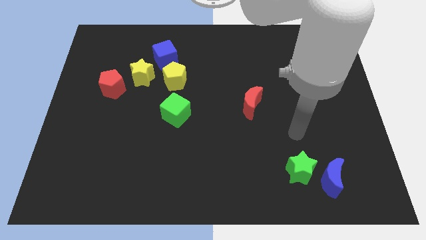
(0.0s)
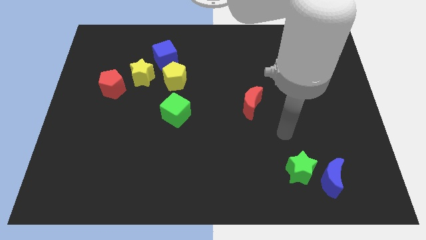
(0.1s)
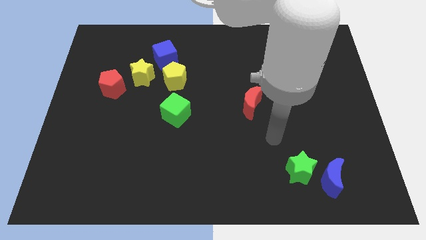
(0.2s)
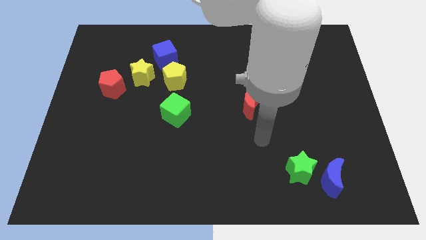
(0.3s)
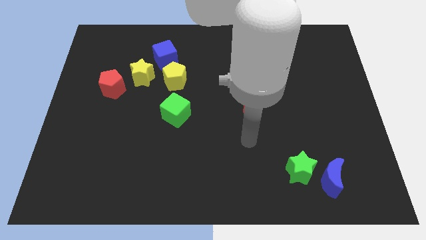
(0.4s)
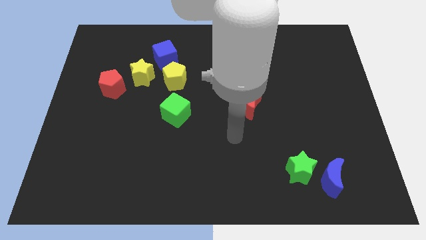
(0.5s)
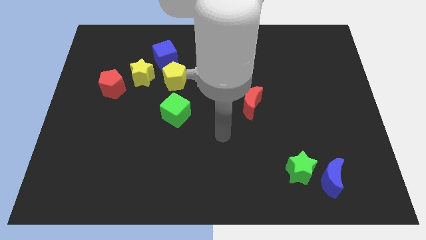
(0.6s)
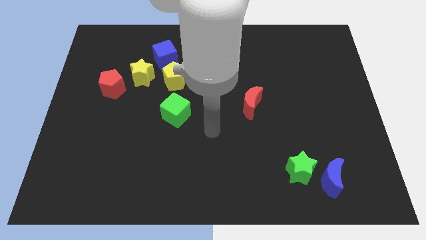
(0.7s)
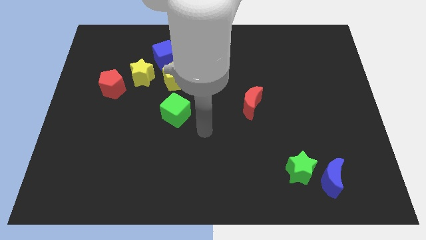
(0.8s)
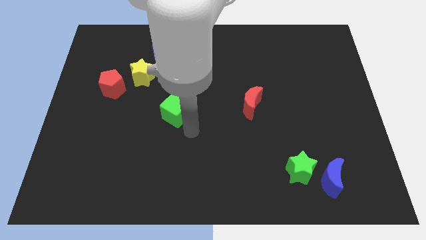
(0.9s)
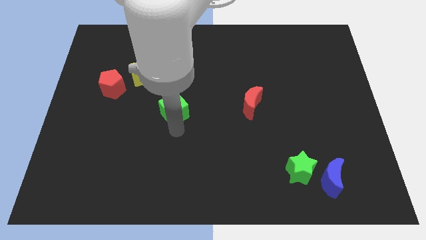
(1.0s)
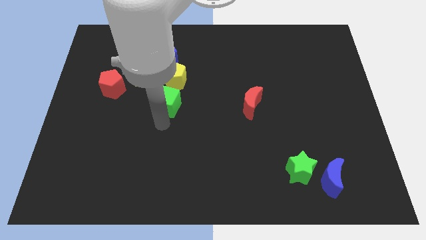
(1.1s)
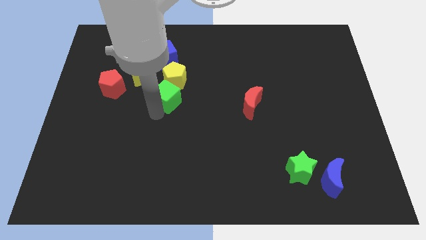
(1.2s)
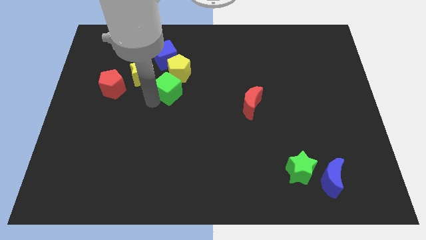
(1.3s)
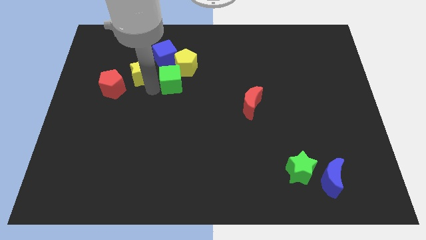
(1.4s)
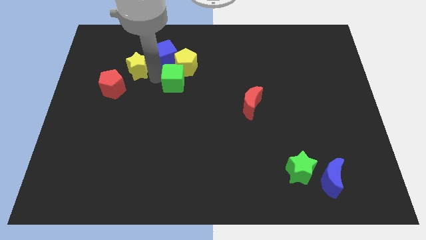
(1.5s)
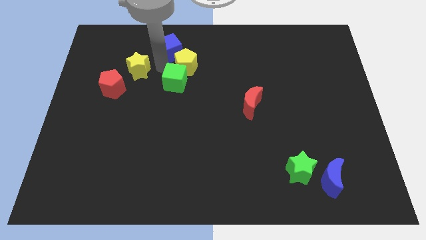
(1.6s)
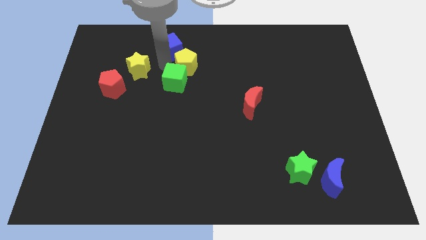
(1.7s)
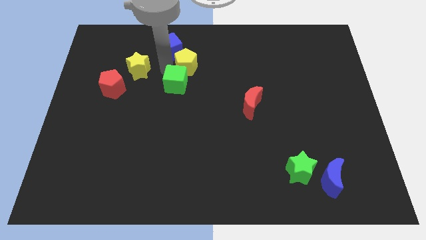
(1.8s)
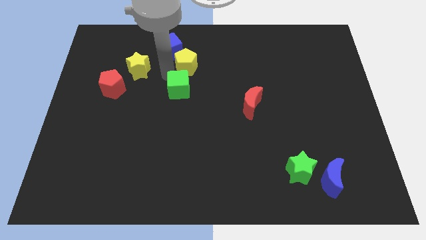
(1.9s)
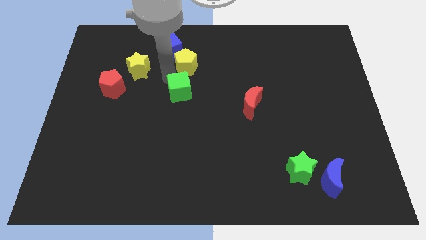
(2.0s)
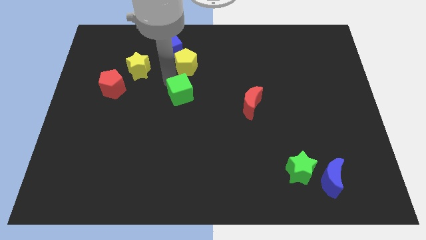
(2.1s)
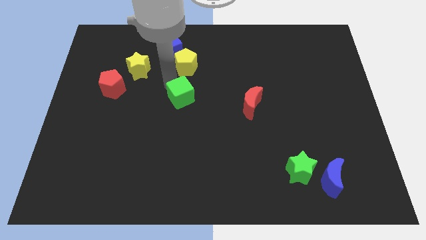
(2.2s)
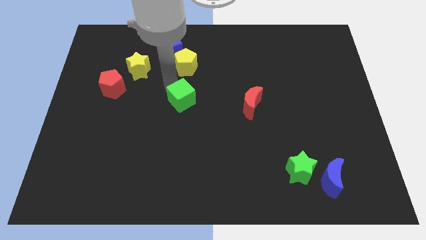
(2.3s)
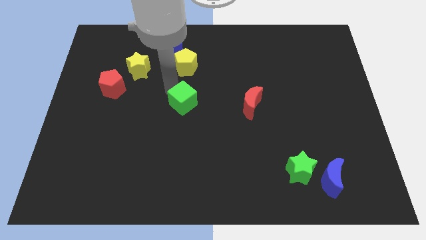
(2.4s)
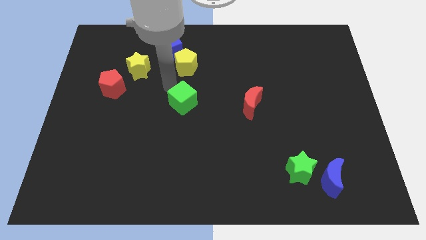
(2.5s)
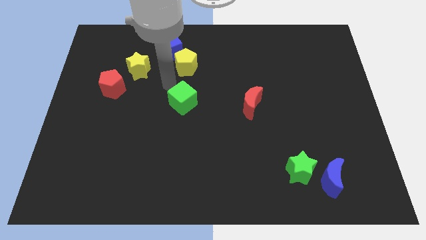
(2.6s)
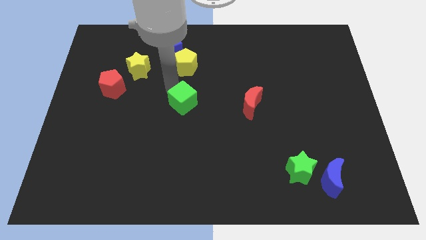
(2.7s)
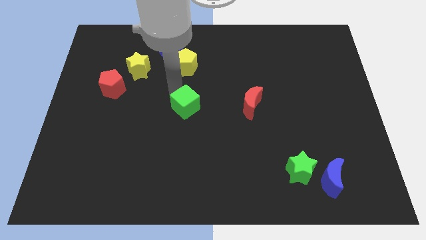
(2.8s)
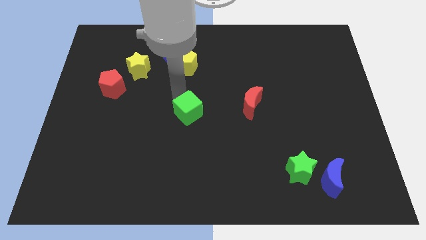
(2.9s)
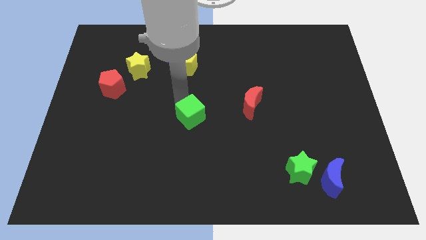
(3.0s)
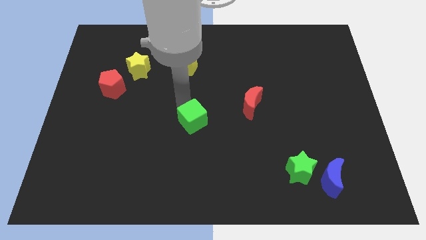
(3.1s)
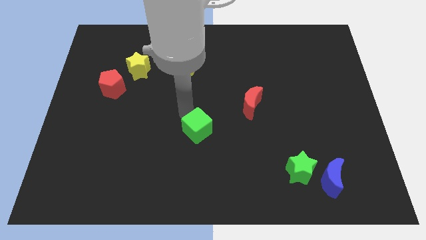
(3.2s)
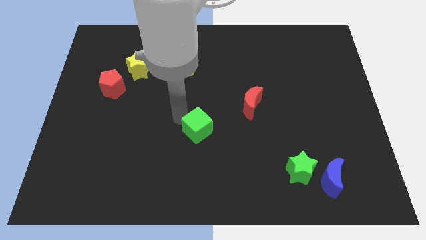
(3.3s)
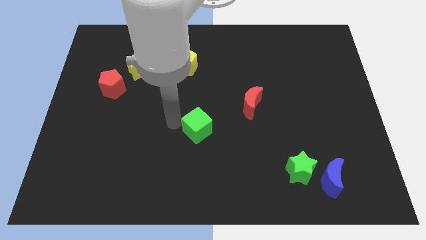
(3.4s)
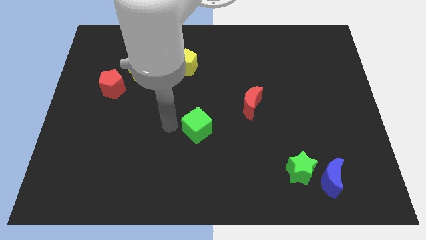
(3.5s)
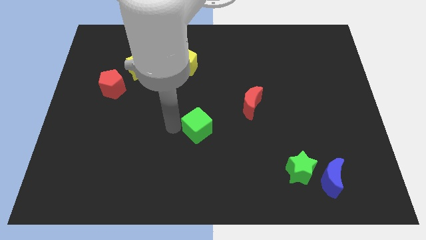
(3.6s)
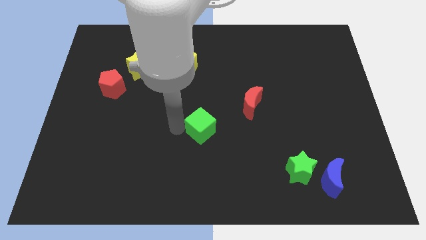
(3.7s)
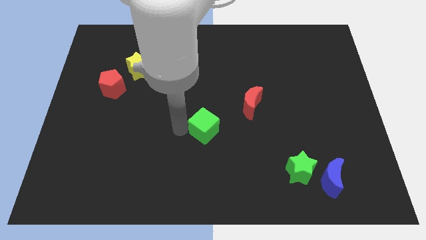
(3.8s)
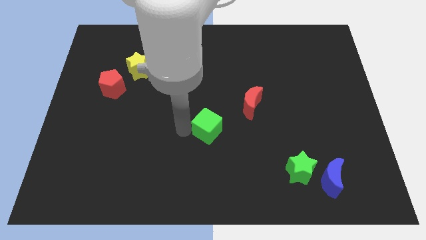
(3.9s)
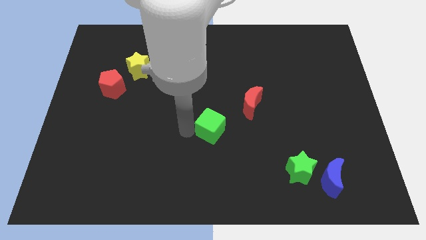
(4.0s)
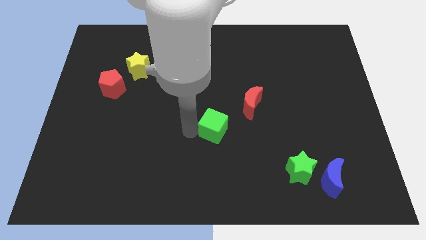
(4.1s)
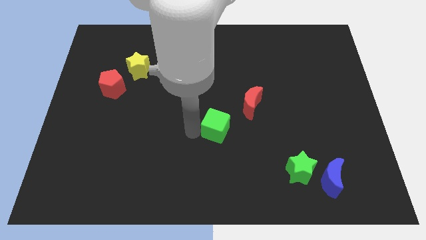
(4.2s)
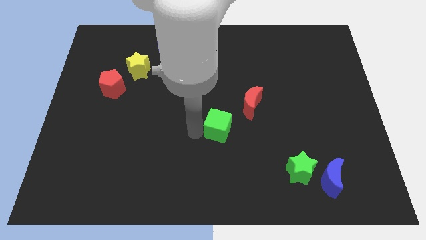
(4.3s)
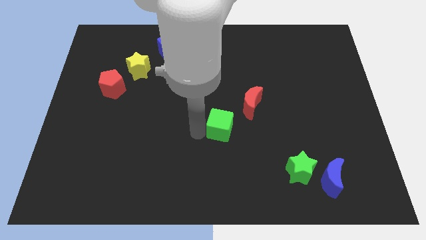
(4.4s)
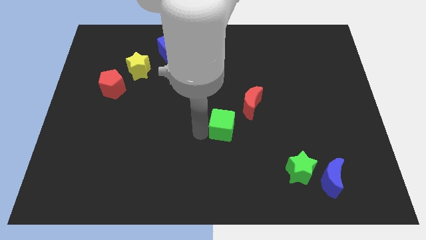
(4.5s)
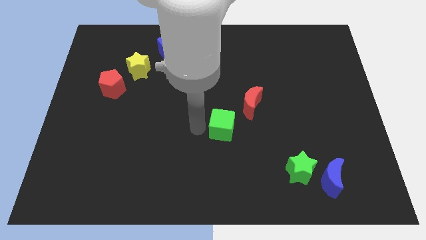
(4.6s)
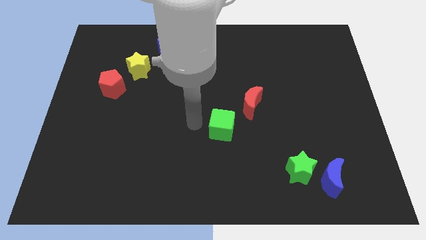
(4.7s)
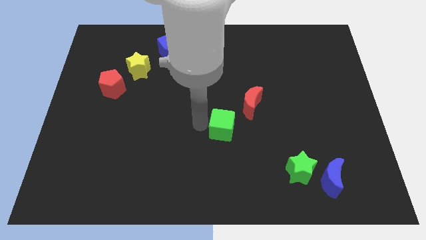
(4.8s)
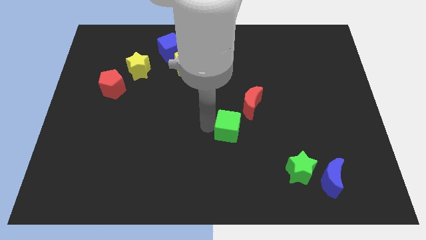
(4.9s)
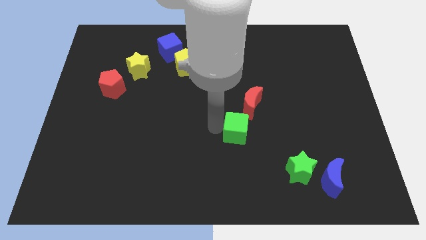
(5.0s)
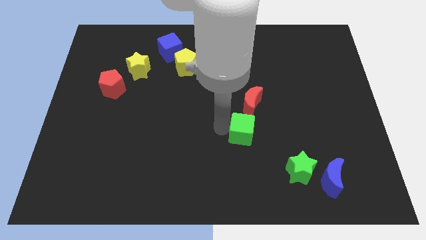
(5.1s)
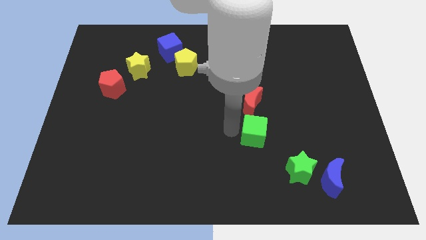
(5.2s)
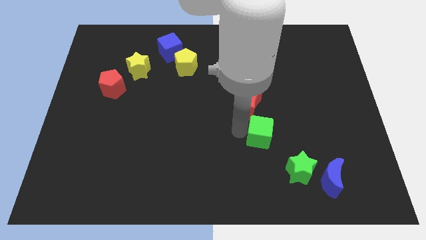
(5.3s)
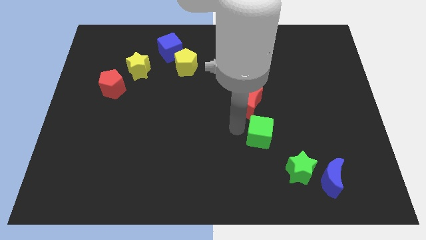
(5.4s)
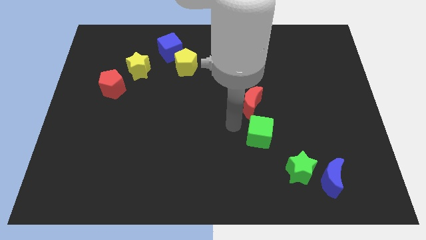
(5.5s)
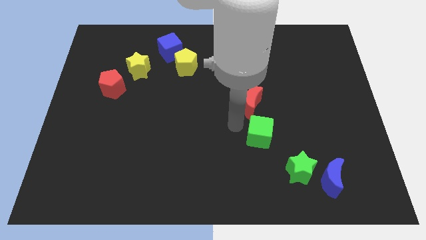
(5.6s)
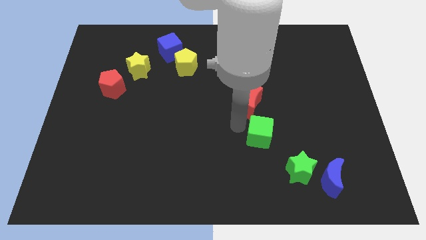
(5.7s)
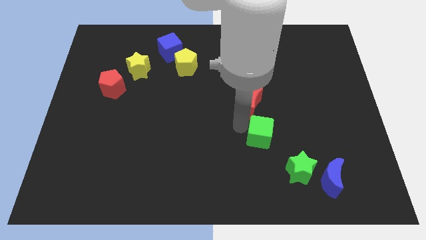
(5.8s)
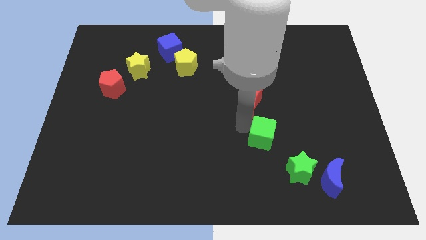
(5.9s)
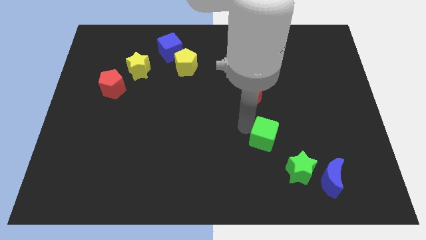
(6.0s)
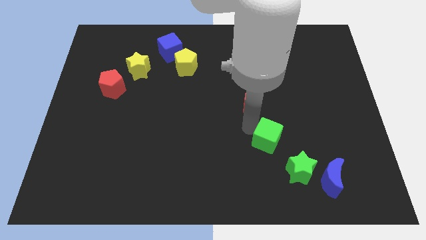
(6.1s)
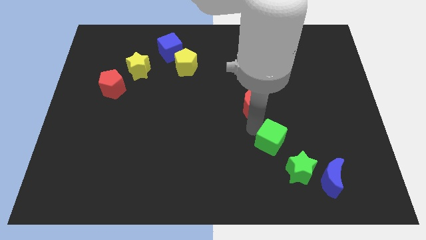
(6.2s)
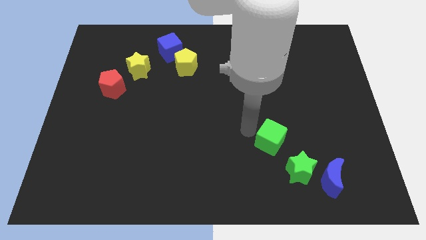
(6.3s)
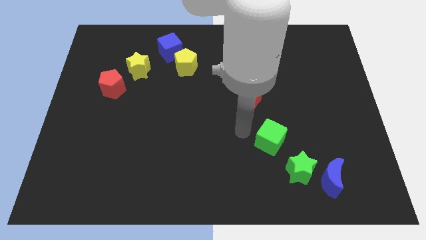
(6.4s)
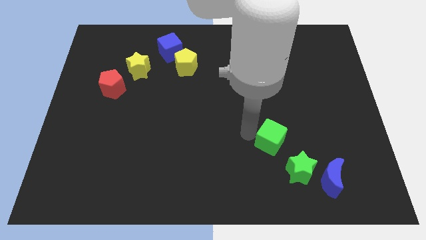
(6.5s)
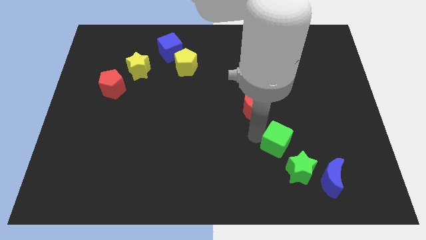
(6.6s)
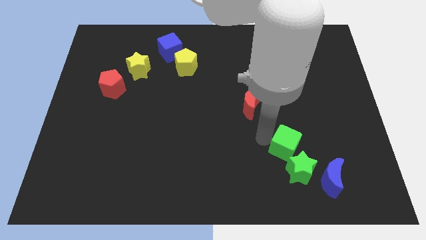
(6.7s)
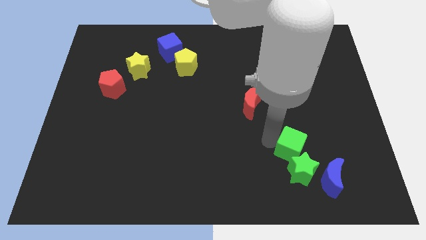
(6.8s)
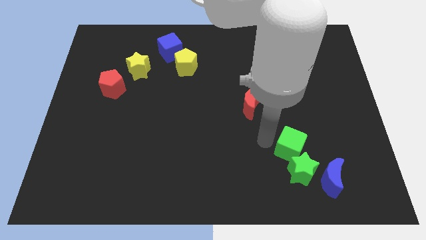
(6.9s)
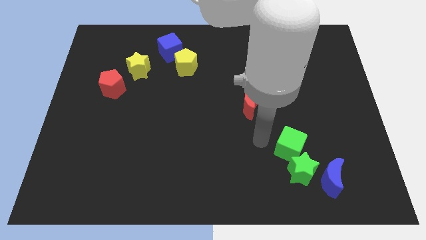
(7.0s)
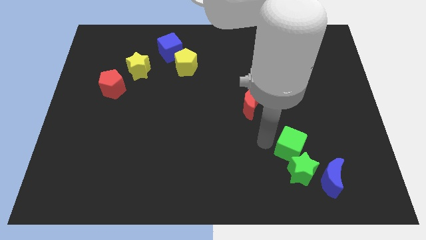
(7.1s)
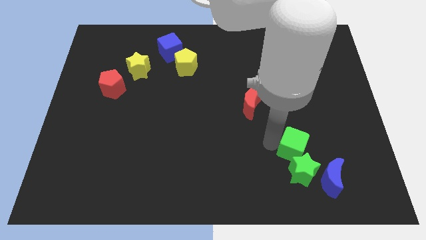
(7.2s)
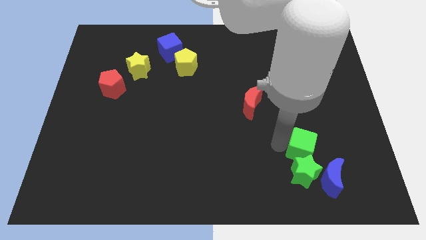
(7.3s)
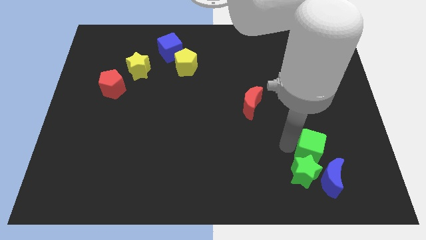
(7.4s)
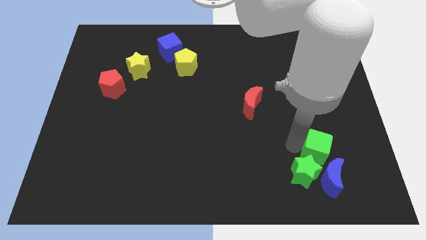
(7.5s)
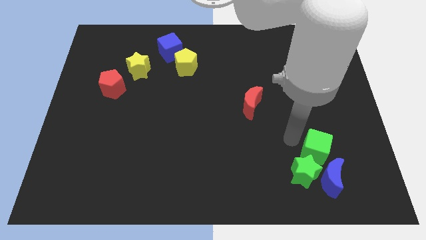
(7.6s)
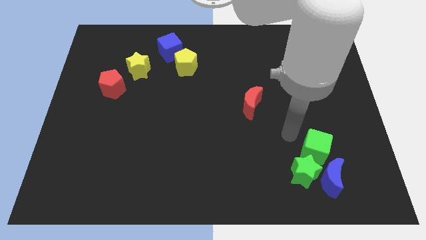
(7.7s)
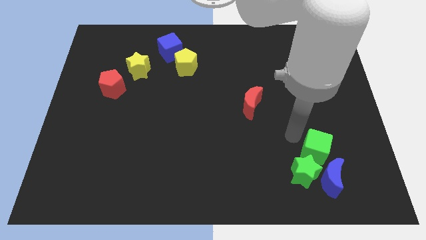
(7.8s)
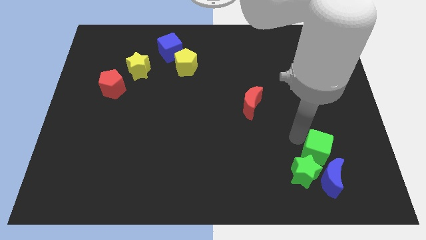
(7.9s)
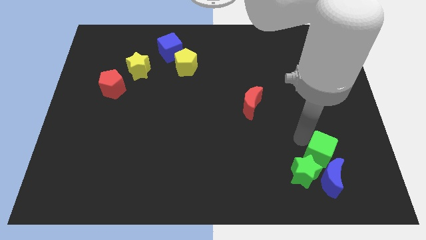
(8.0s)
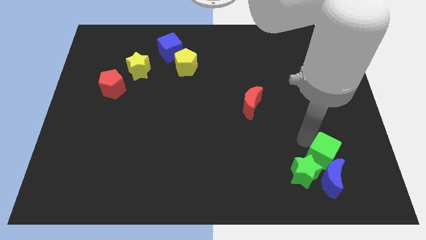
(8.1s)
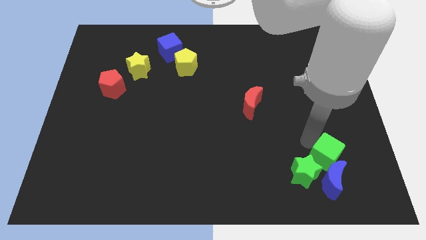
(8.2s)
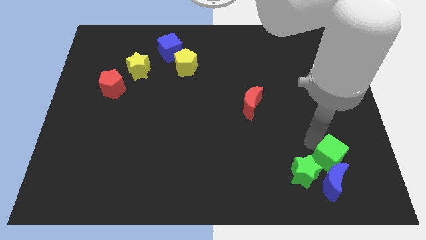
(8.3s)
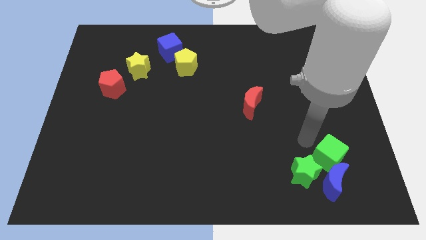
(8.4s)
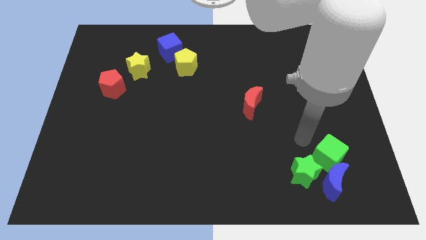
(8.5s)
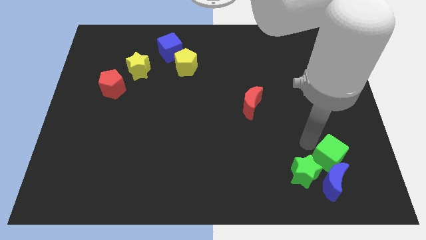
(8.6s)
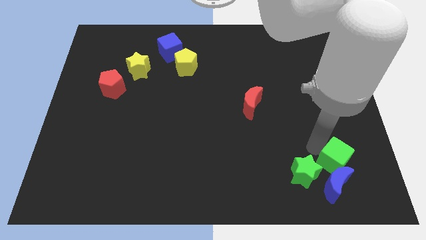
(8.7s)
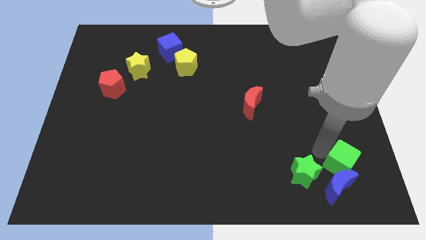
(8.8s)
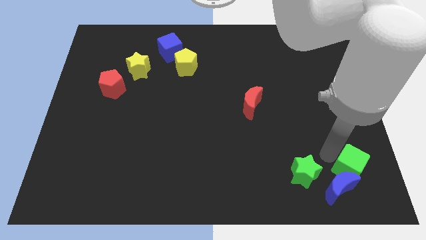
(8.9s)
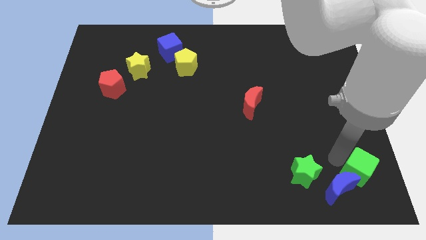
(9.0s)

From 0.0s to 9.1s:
move the green cube to the bottom right corner
